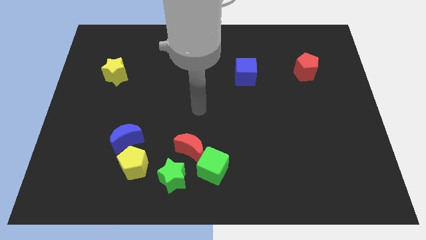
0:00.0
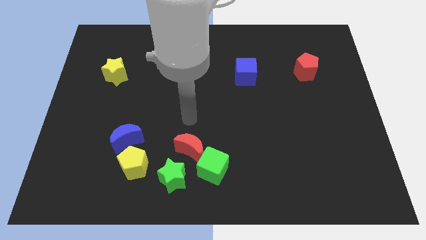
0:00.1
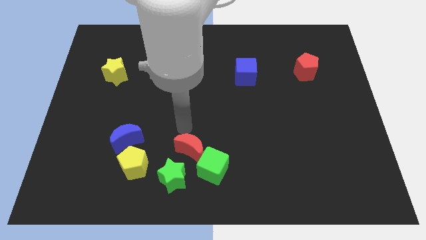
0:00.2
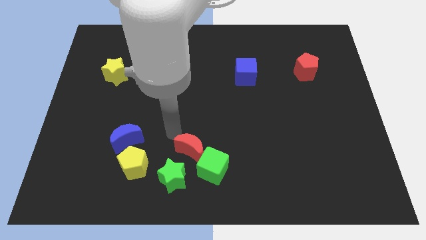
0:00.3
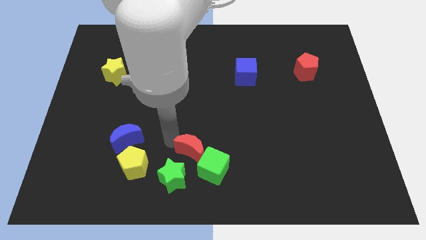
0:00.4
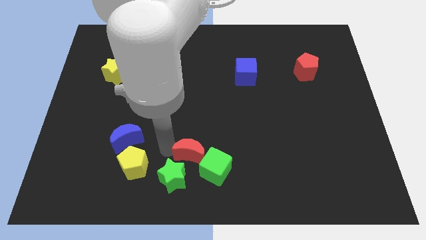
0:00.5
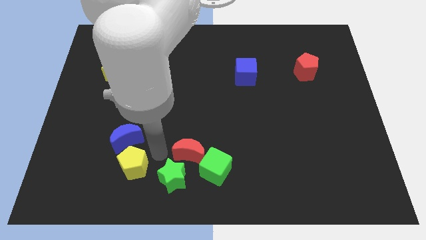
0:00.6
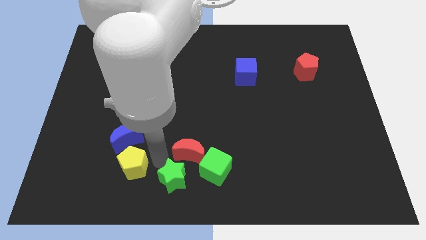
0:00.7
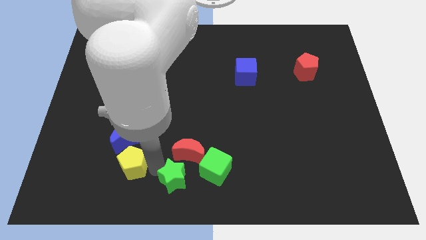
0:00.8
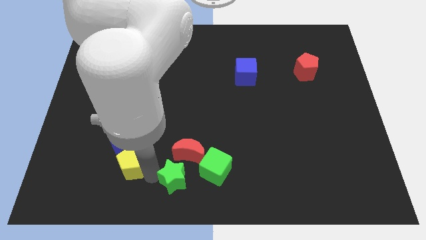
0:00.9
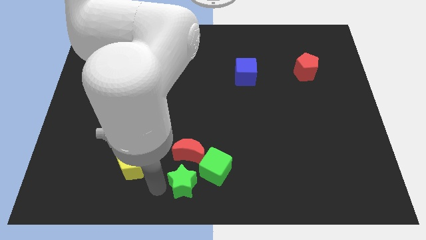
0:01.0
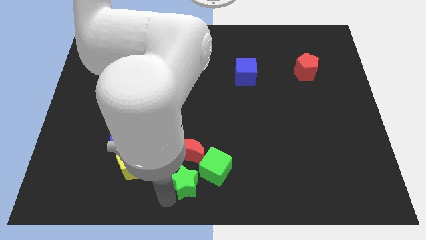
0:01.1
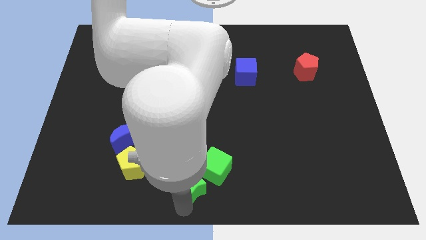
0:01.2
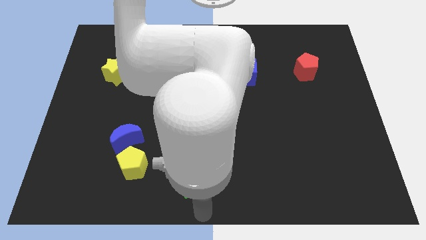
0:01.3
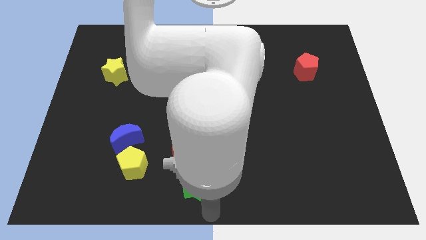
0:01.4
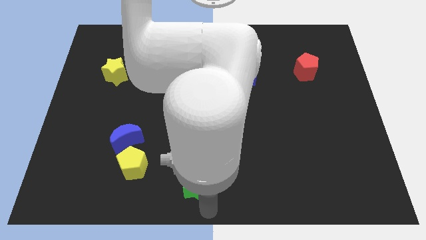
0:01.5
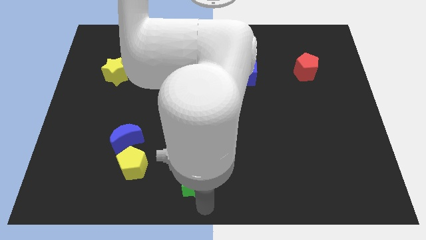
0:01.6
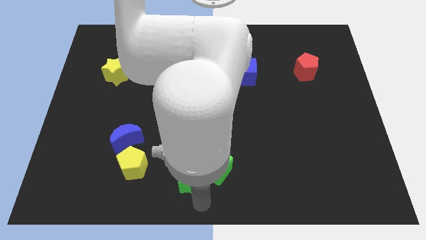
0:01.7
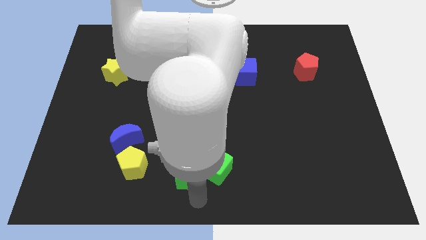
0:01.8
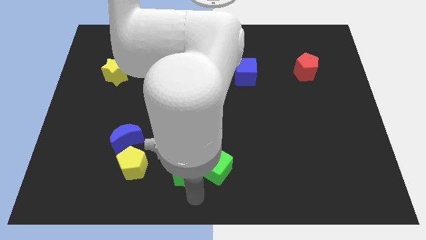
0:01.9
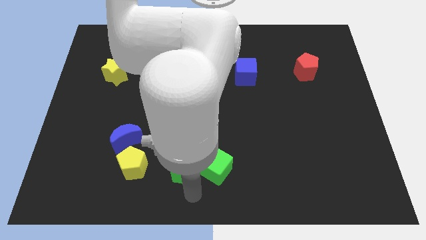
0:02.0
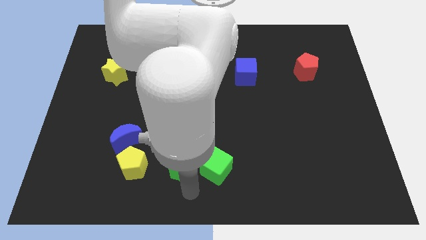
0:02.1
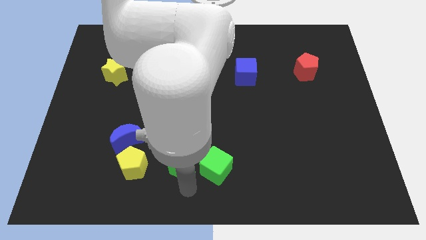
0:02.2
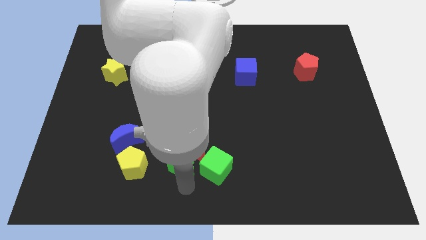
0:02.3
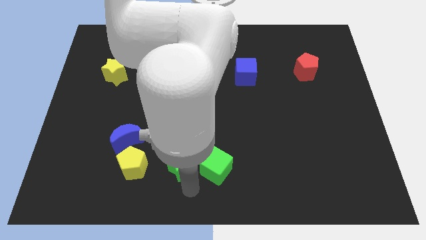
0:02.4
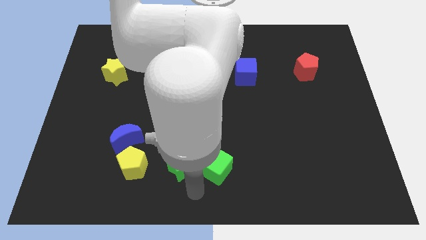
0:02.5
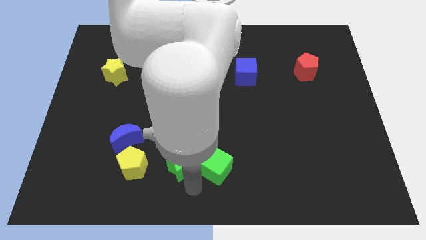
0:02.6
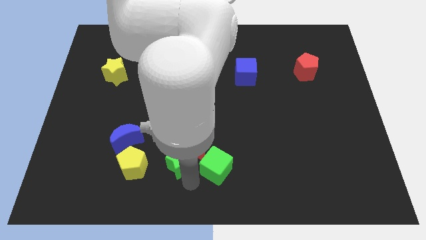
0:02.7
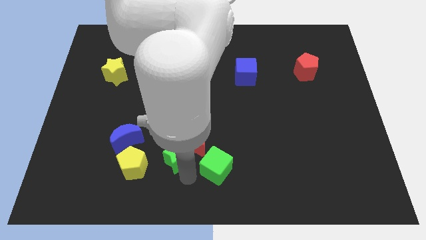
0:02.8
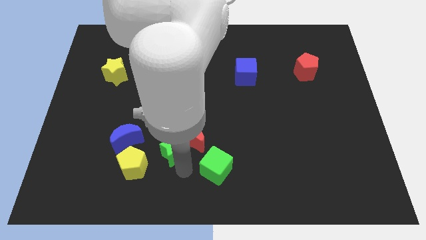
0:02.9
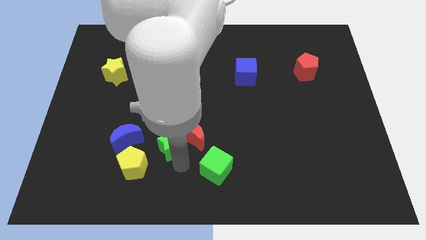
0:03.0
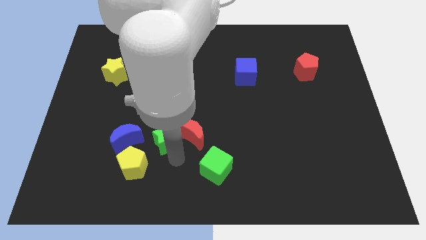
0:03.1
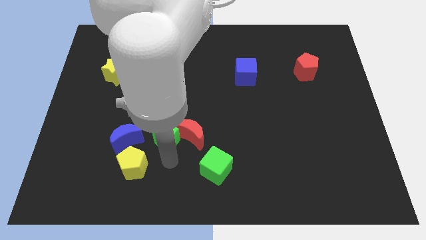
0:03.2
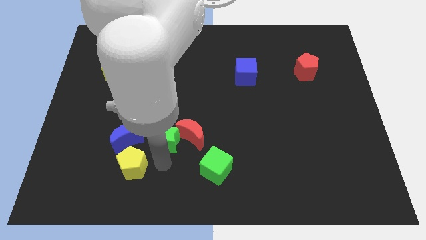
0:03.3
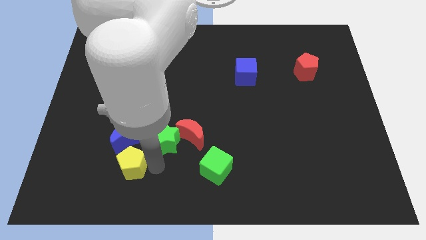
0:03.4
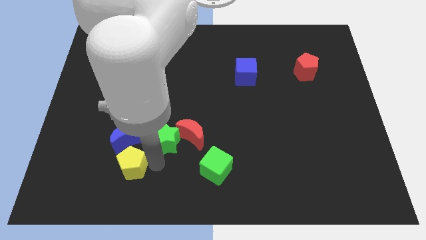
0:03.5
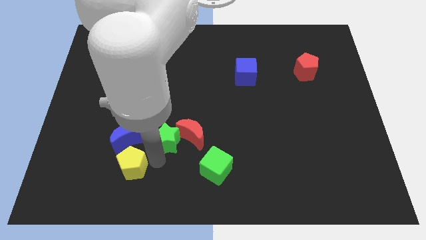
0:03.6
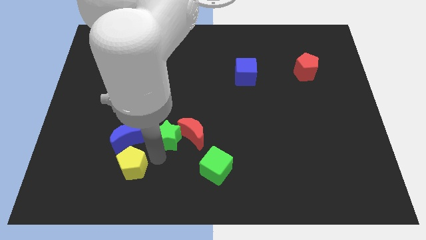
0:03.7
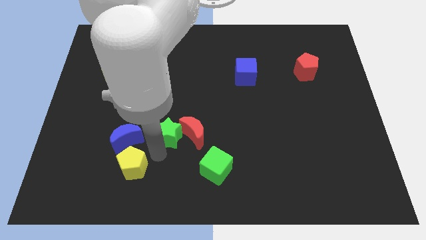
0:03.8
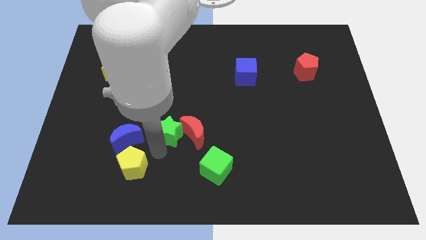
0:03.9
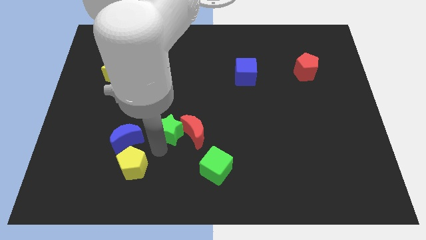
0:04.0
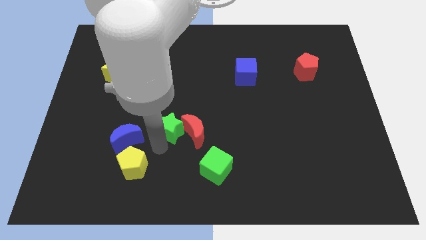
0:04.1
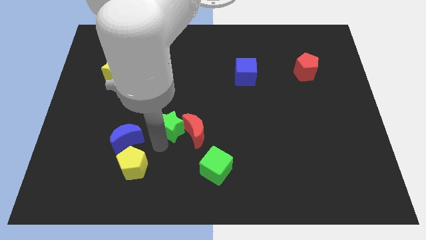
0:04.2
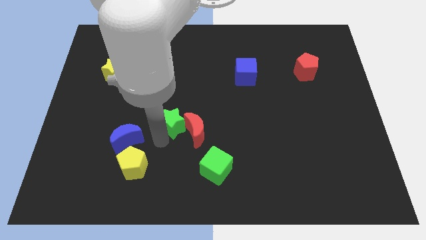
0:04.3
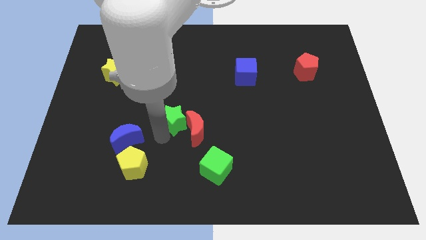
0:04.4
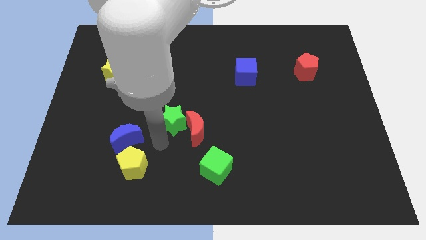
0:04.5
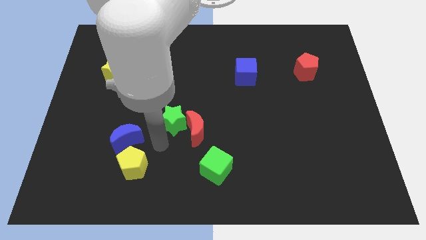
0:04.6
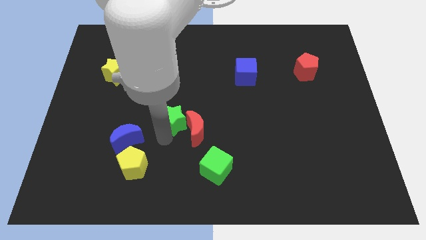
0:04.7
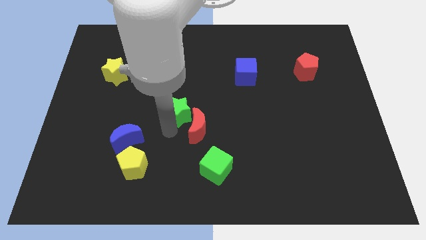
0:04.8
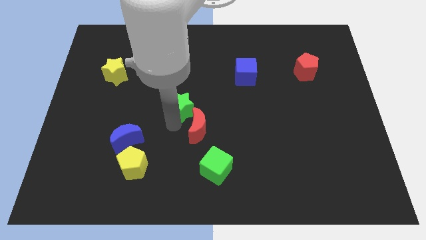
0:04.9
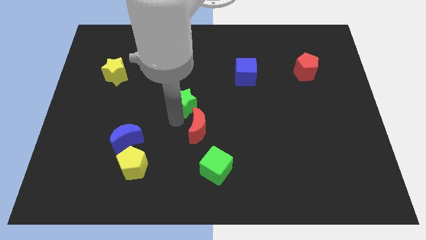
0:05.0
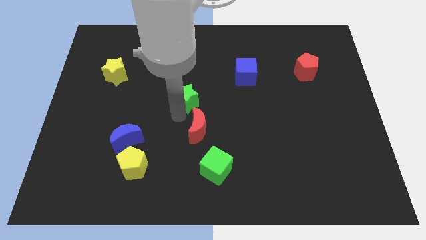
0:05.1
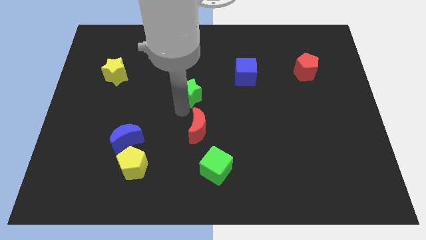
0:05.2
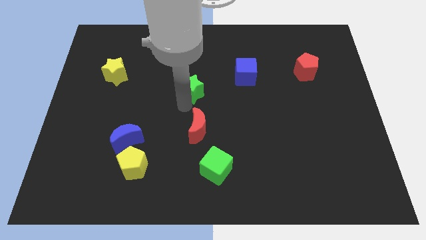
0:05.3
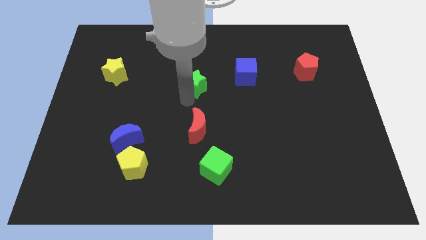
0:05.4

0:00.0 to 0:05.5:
push the green star left of the blue cube

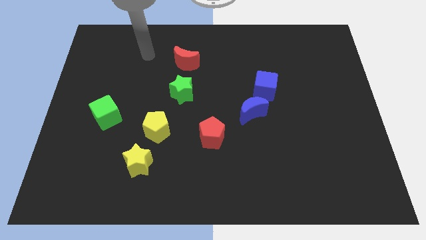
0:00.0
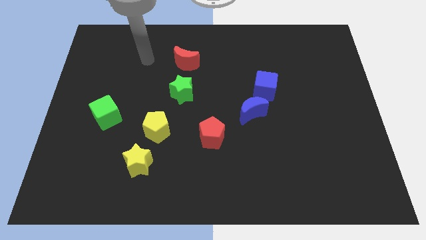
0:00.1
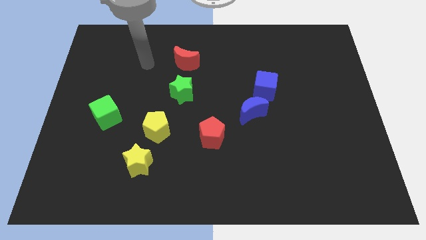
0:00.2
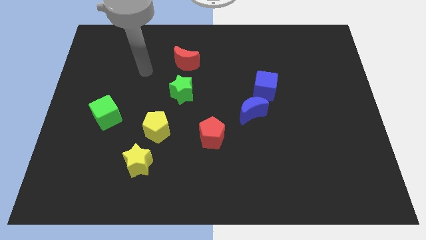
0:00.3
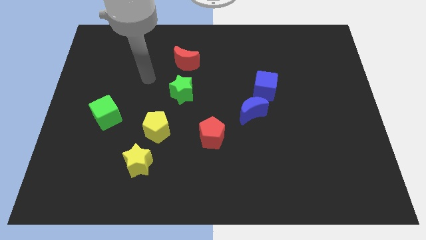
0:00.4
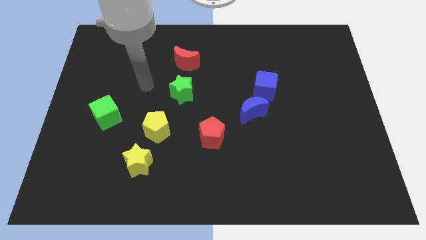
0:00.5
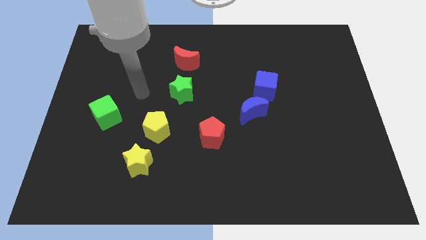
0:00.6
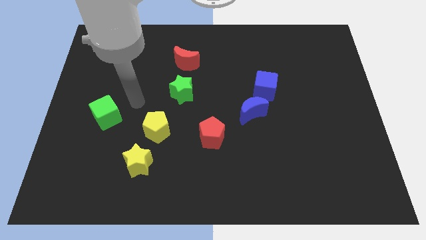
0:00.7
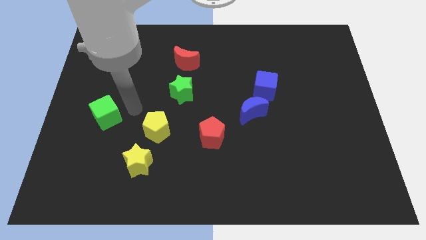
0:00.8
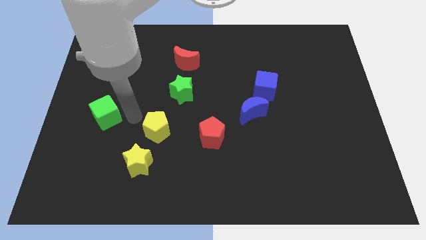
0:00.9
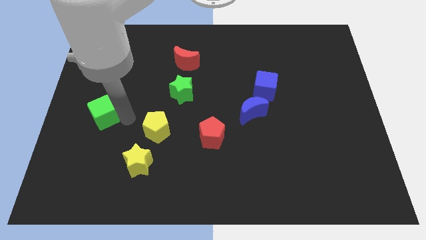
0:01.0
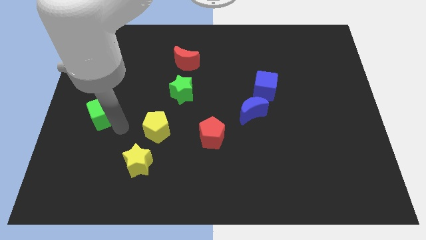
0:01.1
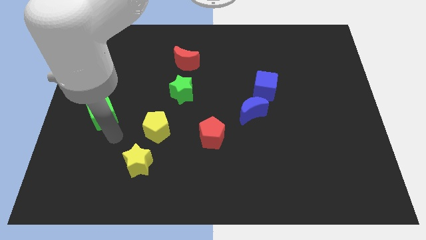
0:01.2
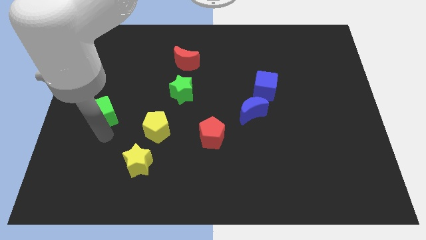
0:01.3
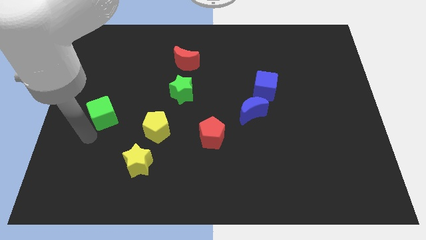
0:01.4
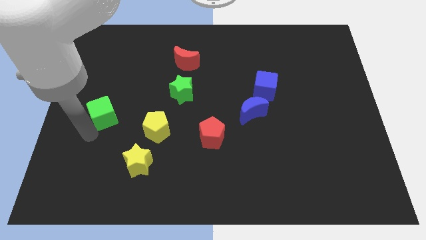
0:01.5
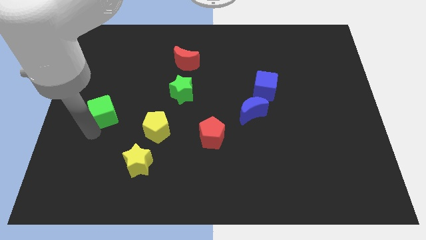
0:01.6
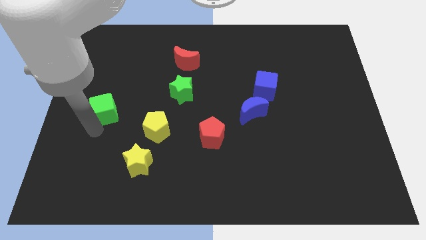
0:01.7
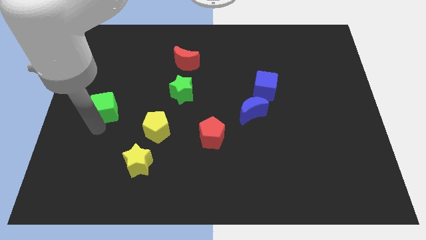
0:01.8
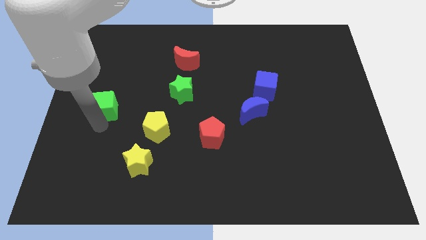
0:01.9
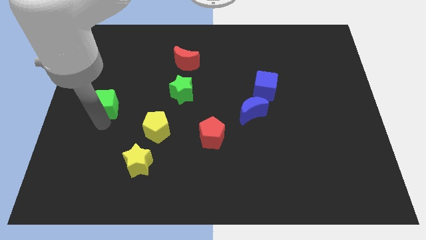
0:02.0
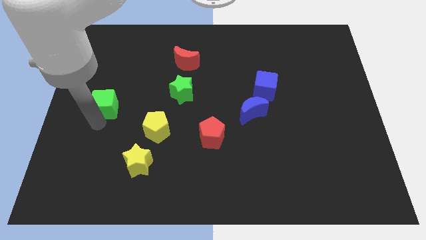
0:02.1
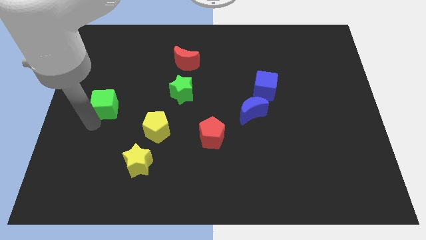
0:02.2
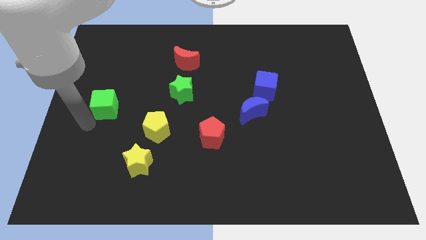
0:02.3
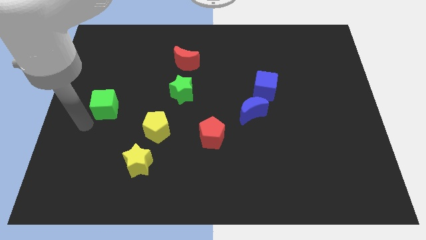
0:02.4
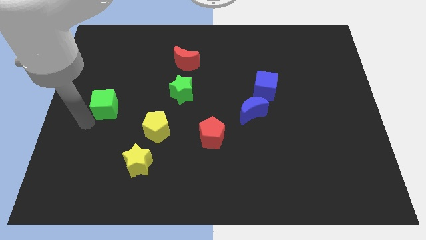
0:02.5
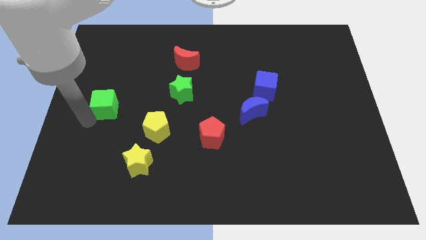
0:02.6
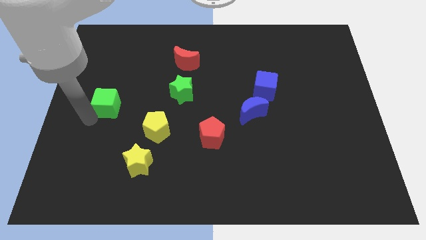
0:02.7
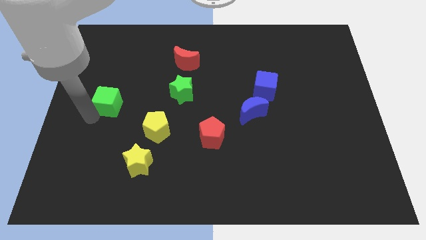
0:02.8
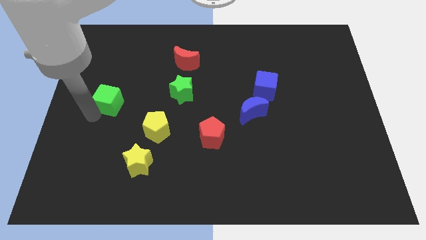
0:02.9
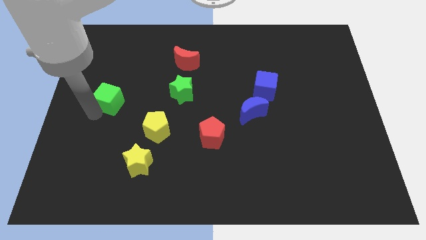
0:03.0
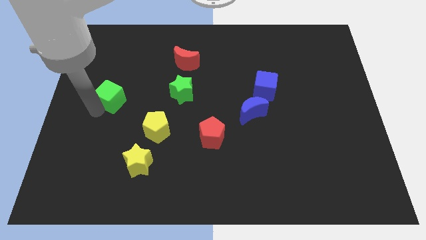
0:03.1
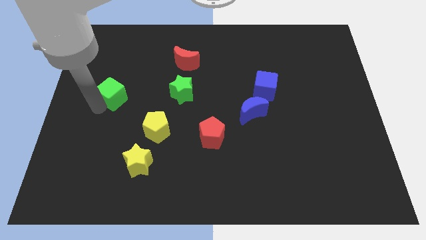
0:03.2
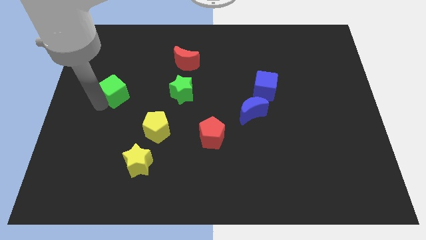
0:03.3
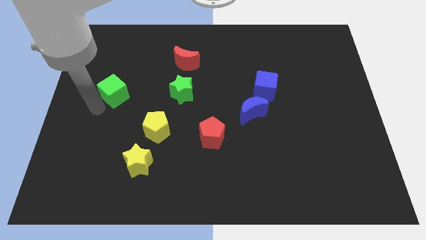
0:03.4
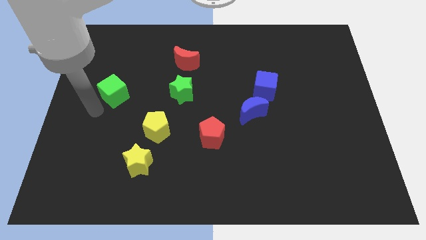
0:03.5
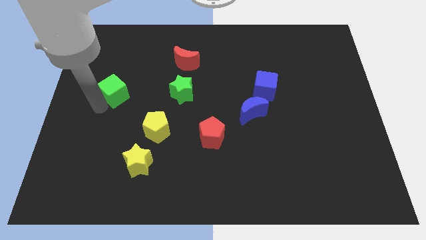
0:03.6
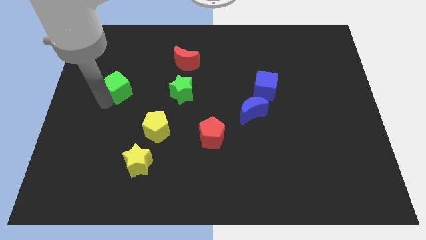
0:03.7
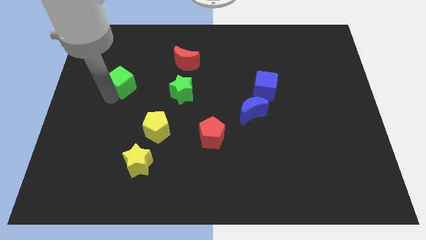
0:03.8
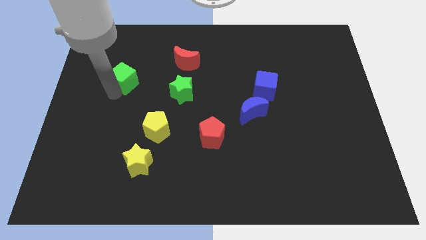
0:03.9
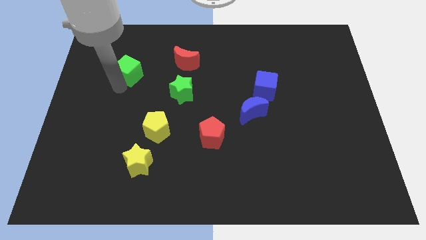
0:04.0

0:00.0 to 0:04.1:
slide the green cube left of the red moon
